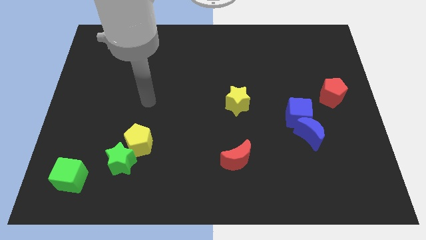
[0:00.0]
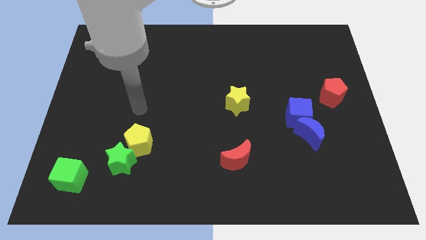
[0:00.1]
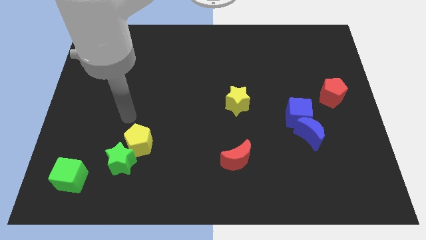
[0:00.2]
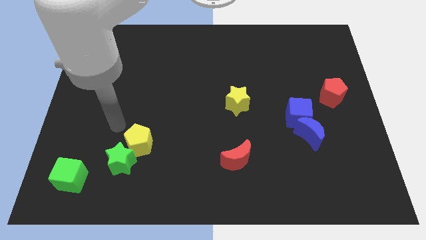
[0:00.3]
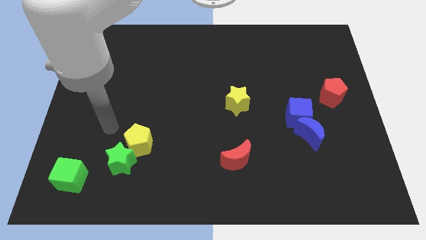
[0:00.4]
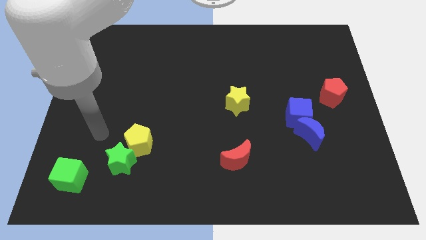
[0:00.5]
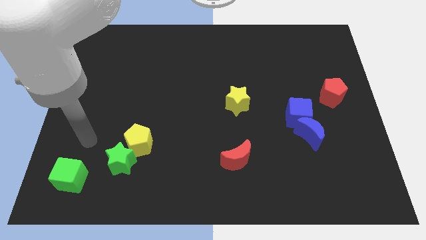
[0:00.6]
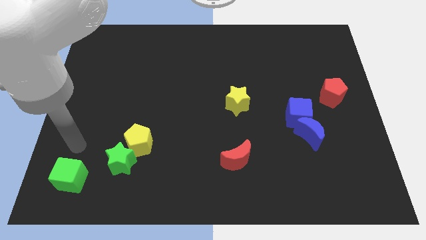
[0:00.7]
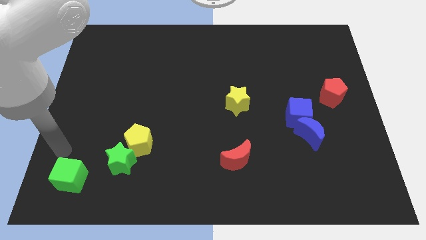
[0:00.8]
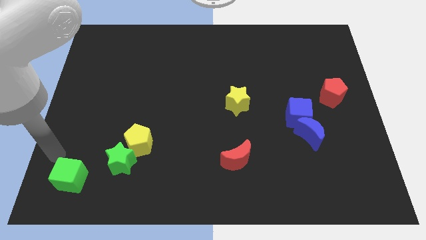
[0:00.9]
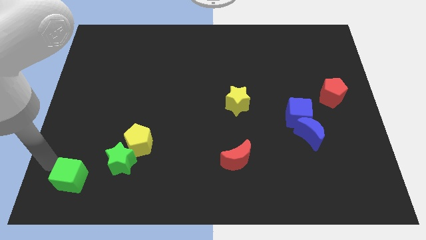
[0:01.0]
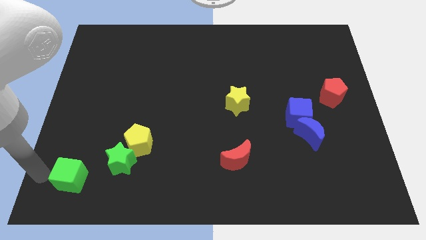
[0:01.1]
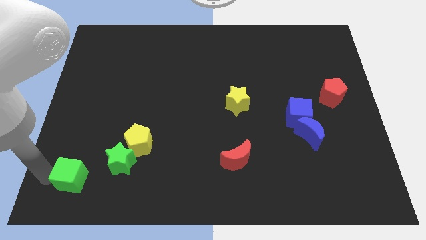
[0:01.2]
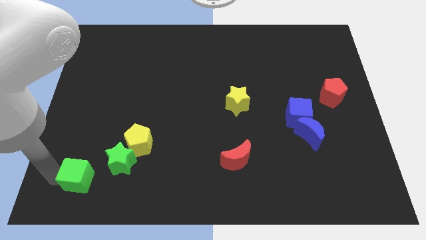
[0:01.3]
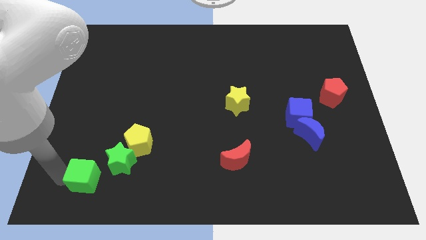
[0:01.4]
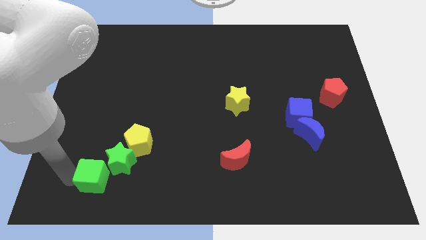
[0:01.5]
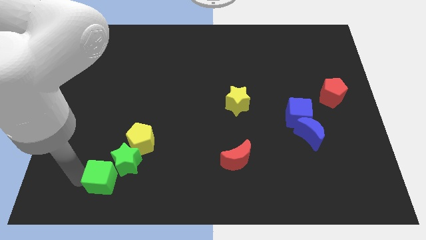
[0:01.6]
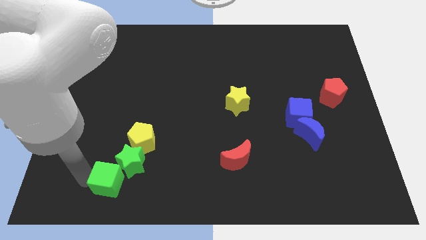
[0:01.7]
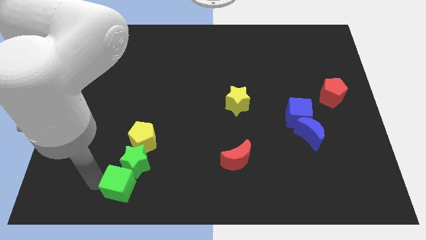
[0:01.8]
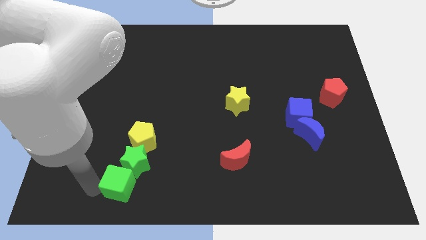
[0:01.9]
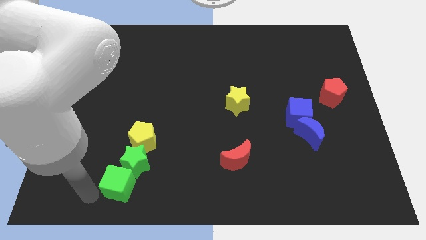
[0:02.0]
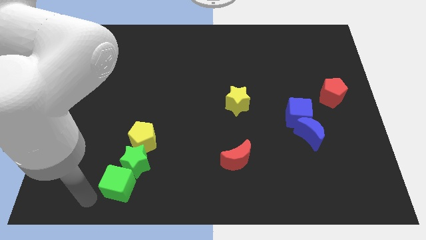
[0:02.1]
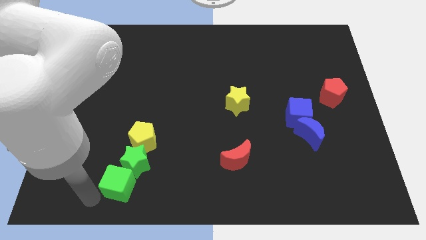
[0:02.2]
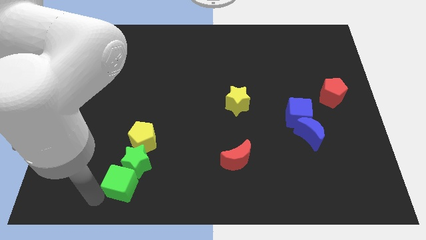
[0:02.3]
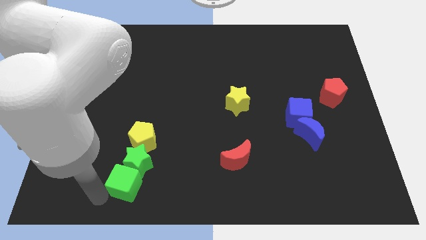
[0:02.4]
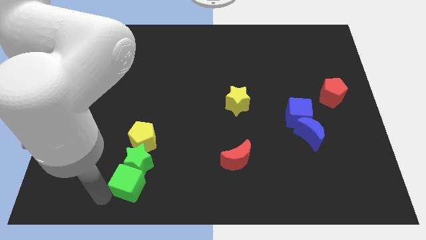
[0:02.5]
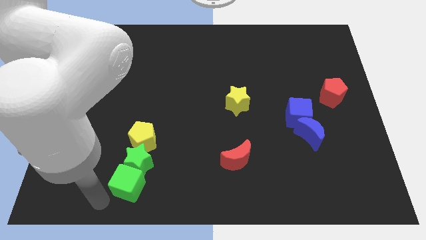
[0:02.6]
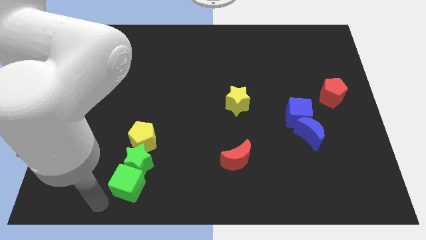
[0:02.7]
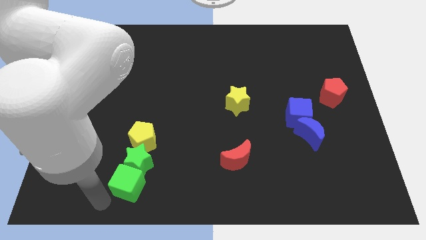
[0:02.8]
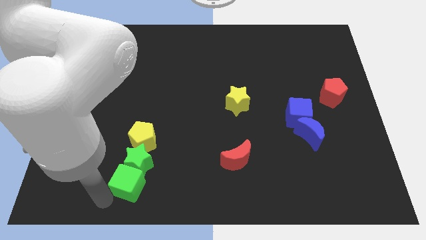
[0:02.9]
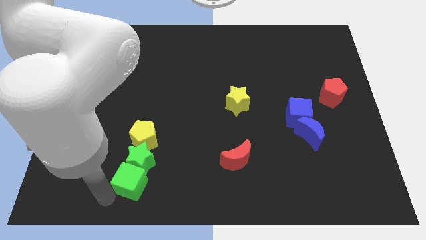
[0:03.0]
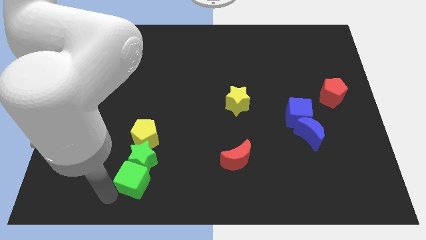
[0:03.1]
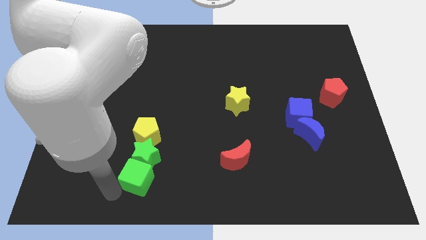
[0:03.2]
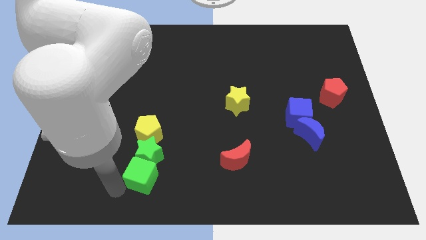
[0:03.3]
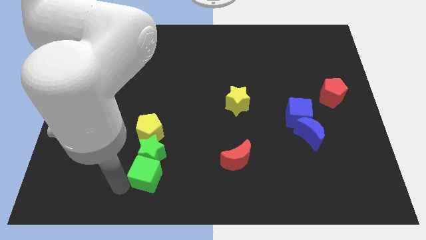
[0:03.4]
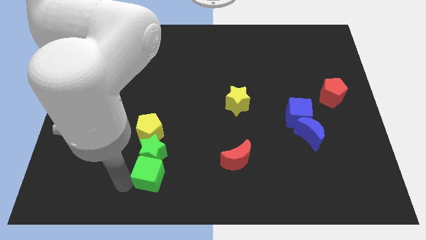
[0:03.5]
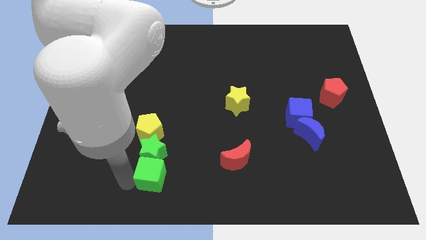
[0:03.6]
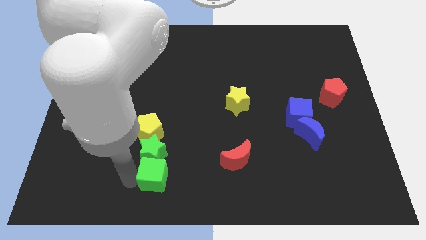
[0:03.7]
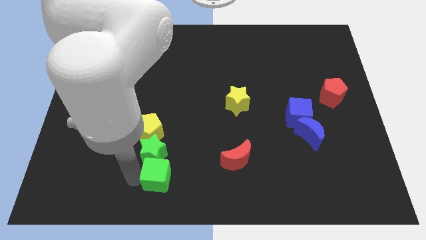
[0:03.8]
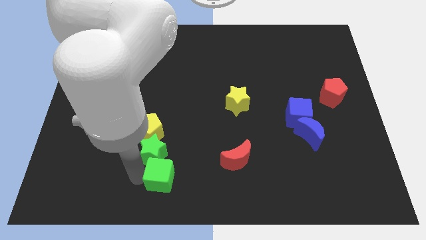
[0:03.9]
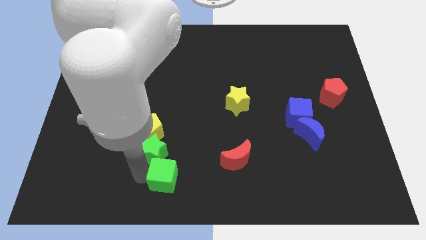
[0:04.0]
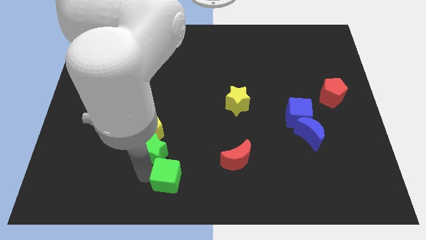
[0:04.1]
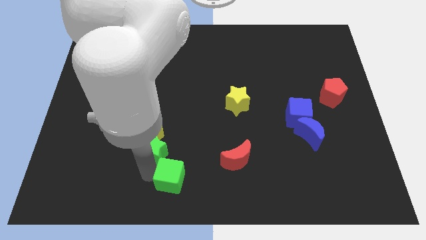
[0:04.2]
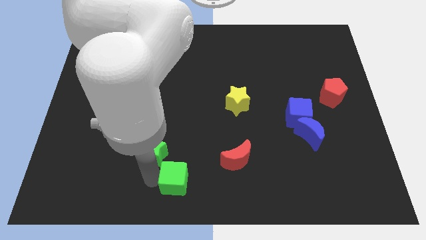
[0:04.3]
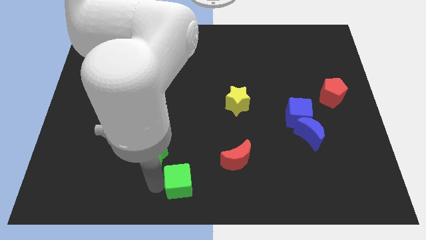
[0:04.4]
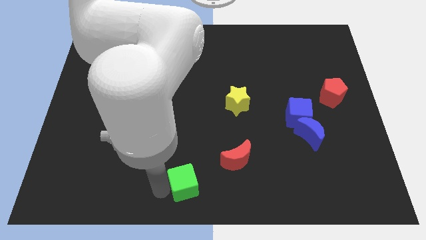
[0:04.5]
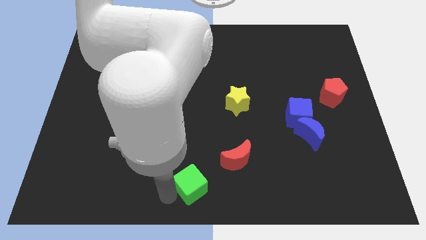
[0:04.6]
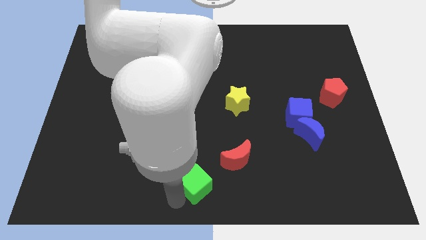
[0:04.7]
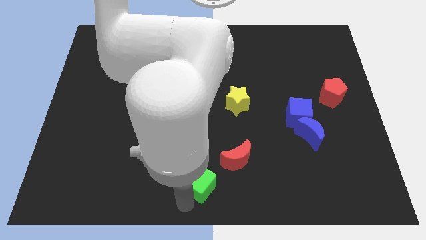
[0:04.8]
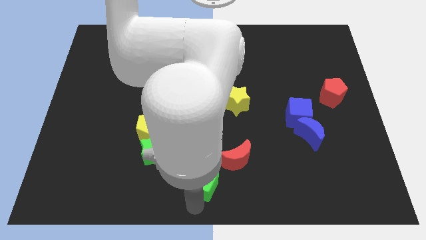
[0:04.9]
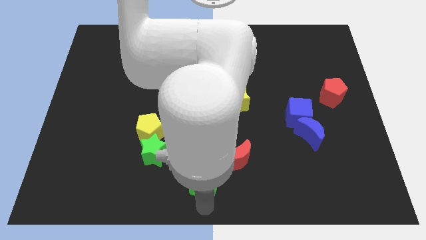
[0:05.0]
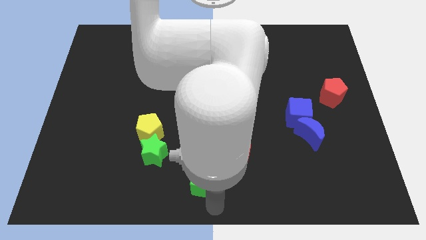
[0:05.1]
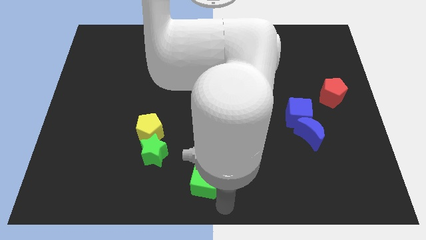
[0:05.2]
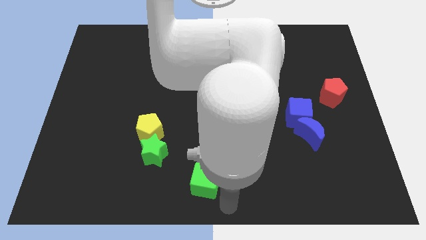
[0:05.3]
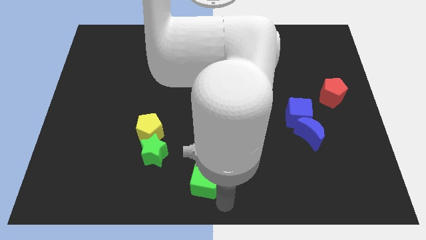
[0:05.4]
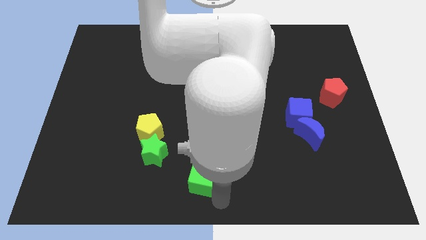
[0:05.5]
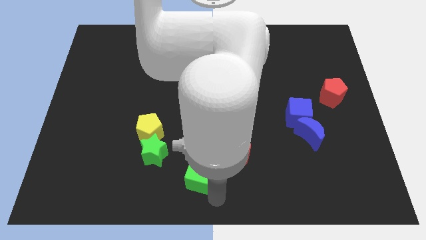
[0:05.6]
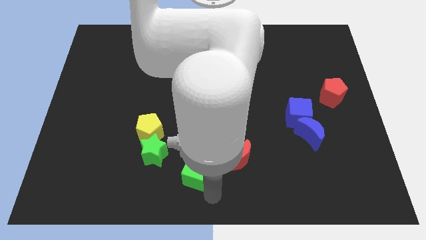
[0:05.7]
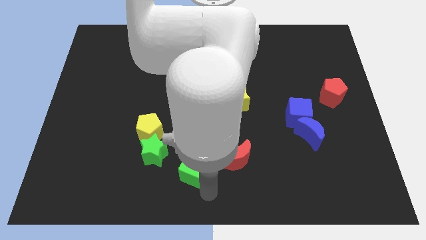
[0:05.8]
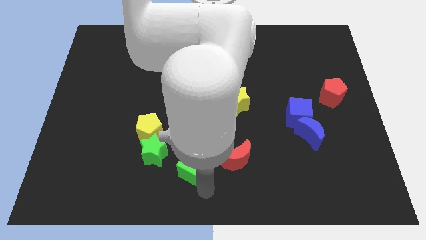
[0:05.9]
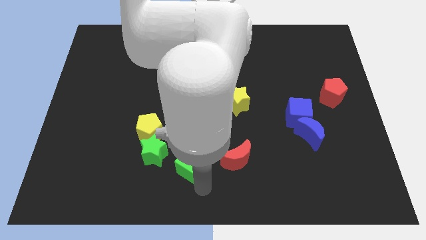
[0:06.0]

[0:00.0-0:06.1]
move the green cube to the bottom right of the yellow pentagon

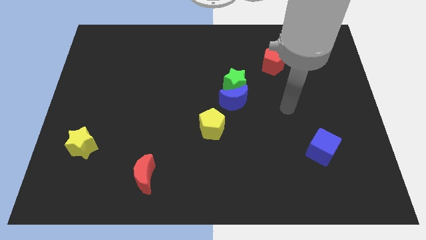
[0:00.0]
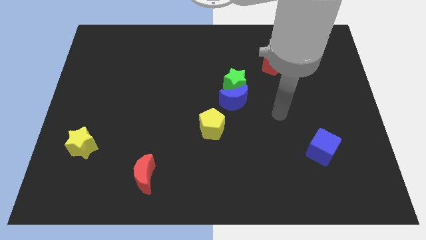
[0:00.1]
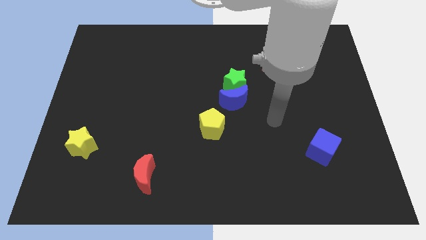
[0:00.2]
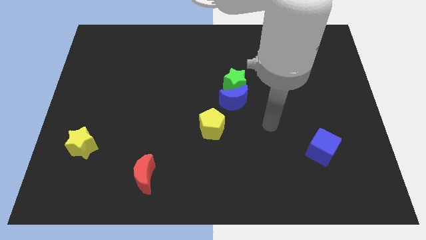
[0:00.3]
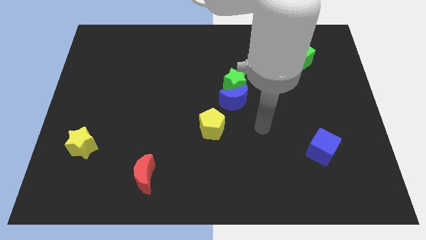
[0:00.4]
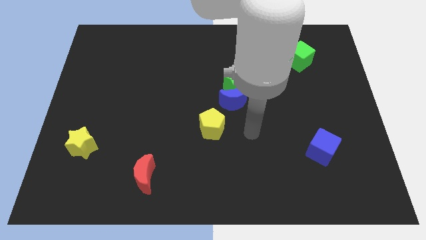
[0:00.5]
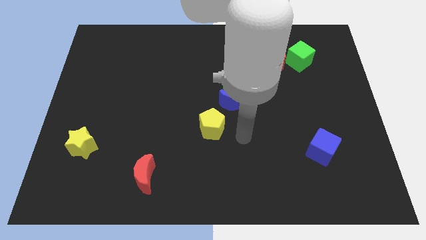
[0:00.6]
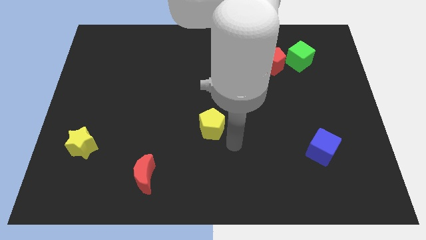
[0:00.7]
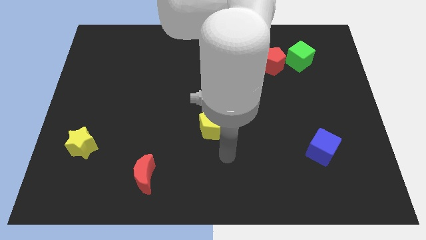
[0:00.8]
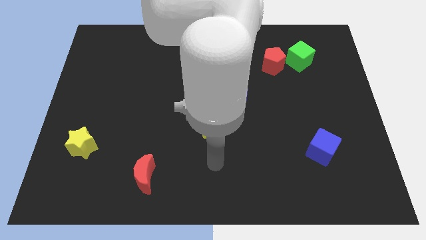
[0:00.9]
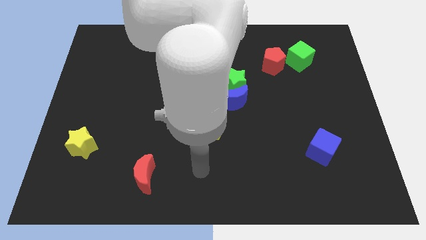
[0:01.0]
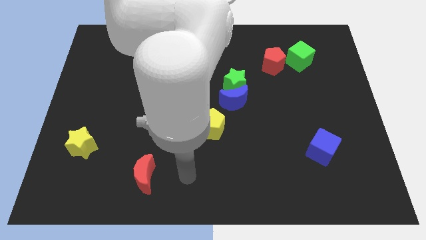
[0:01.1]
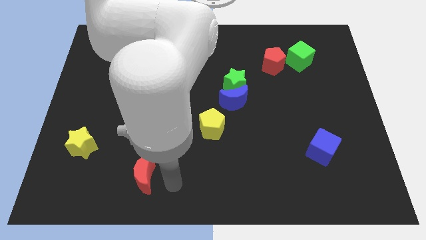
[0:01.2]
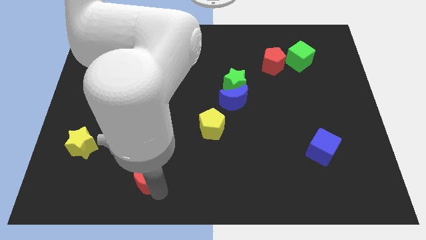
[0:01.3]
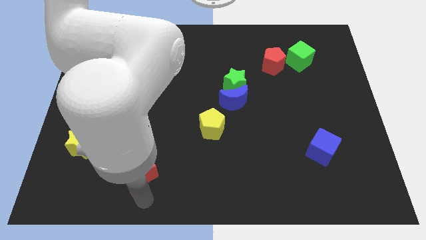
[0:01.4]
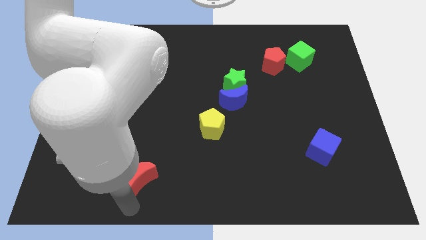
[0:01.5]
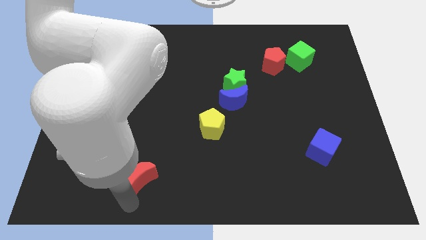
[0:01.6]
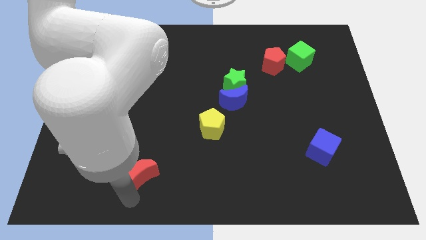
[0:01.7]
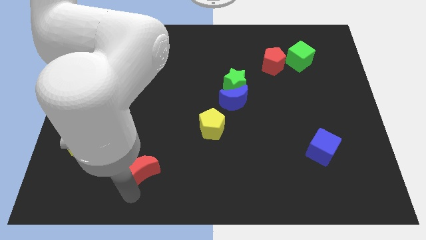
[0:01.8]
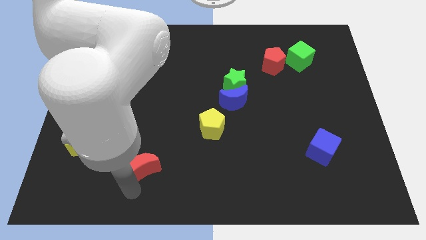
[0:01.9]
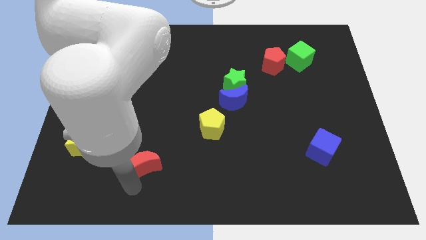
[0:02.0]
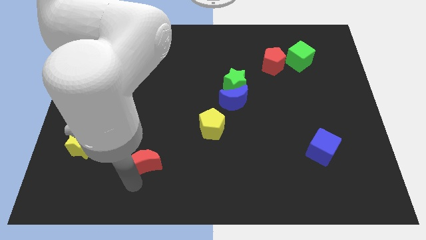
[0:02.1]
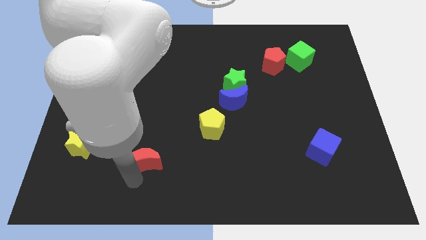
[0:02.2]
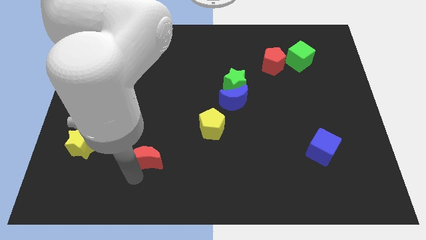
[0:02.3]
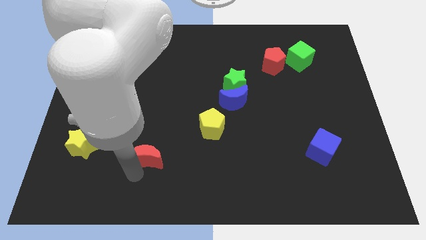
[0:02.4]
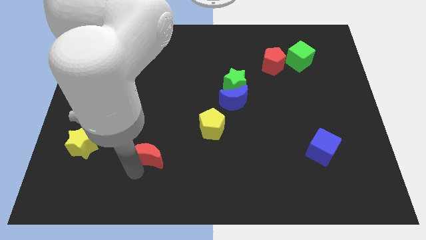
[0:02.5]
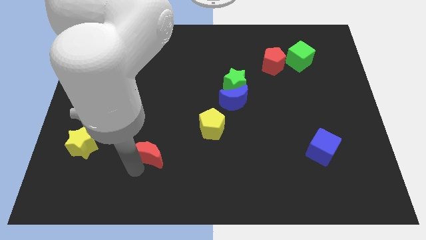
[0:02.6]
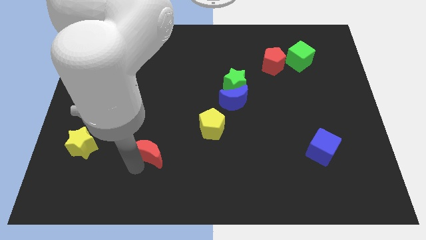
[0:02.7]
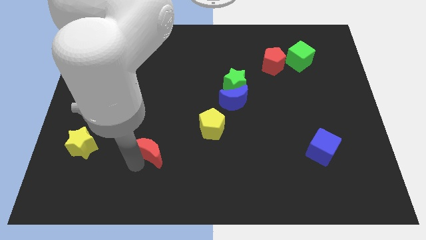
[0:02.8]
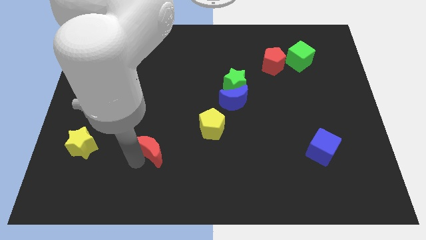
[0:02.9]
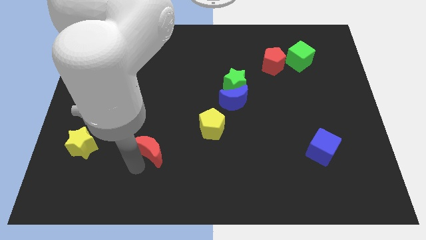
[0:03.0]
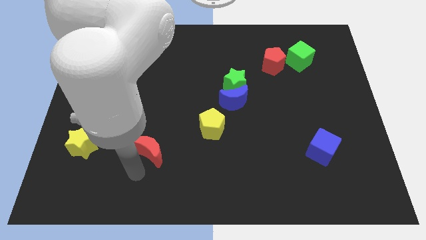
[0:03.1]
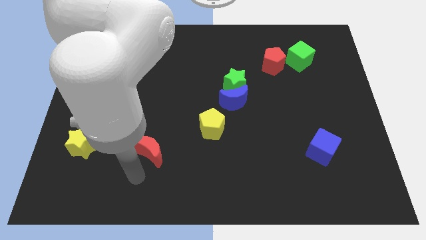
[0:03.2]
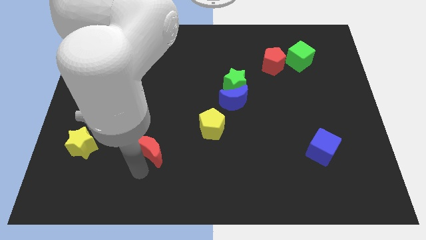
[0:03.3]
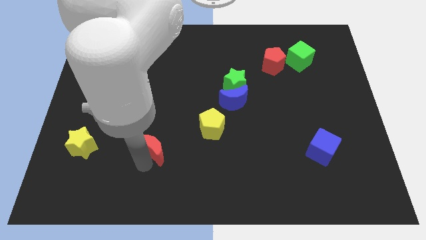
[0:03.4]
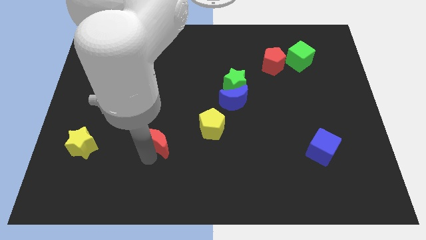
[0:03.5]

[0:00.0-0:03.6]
move the red moon left of the yellow pentagon
